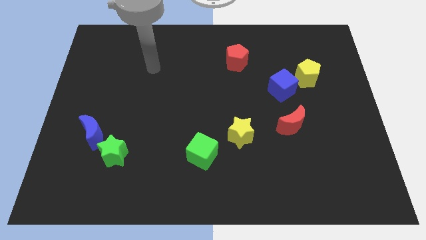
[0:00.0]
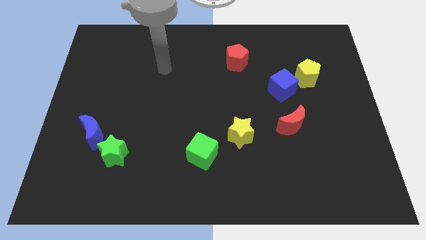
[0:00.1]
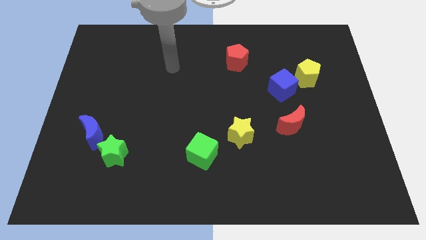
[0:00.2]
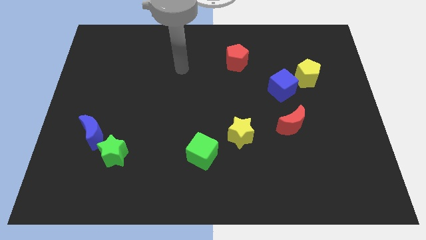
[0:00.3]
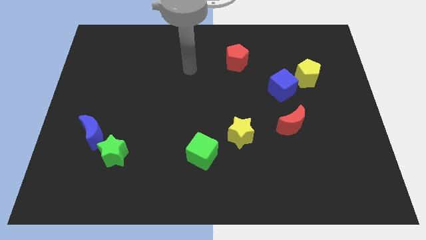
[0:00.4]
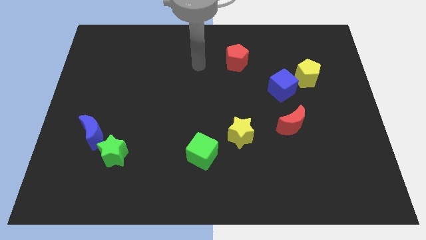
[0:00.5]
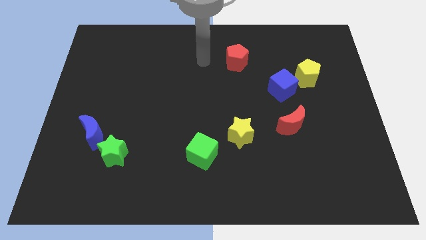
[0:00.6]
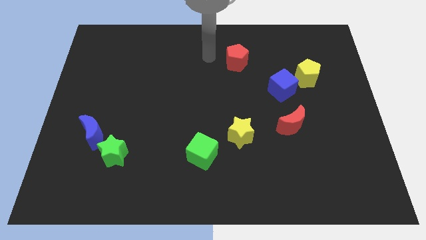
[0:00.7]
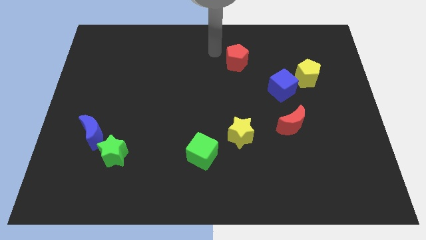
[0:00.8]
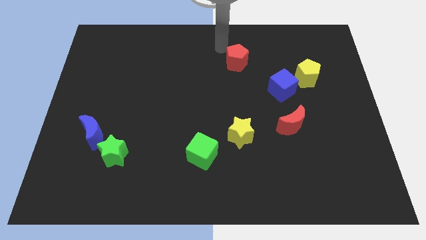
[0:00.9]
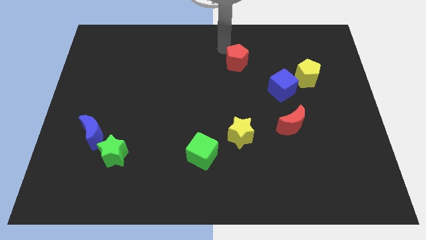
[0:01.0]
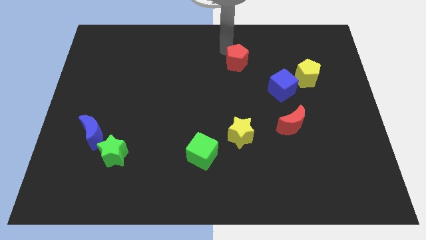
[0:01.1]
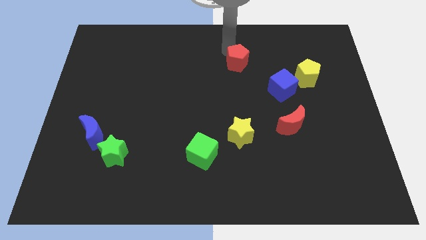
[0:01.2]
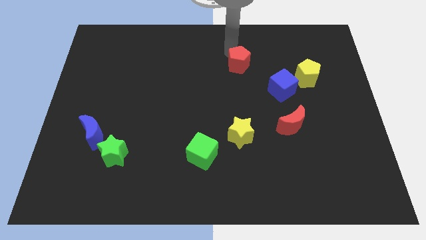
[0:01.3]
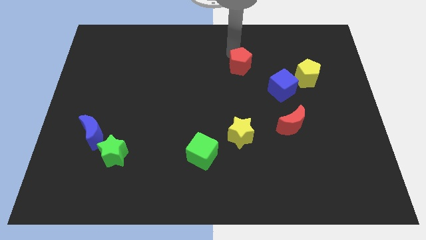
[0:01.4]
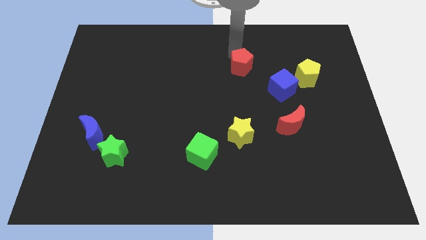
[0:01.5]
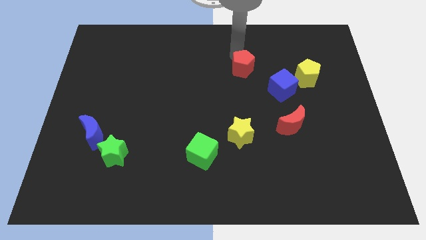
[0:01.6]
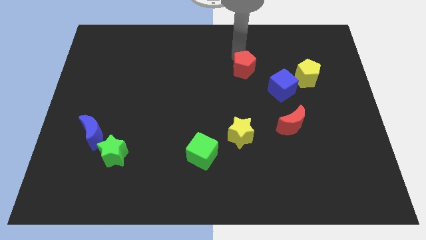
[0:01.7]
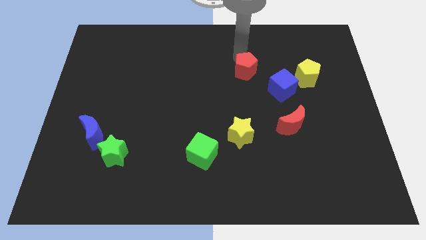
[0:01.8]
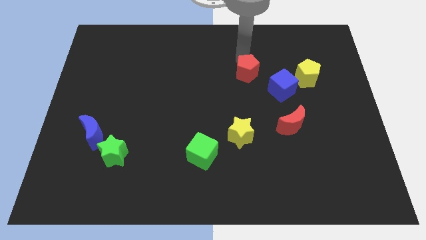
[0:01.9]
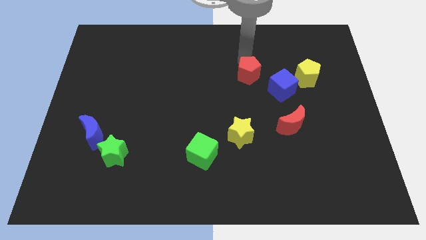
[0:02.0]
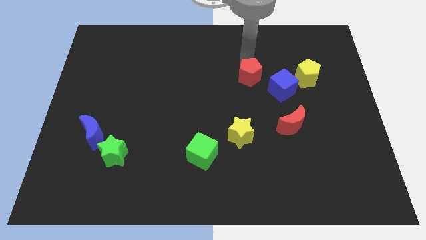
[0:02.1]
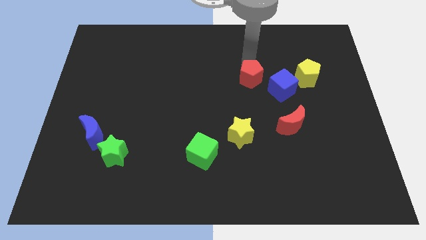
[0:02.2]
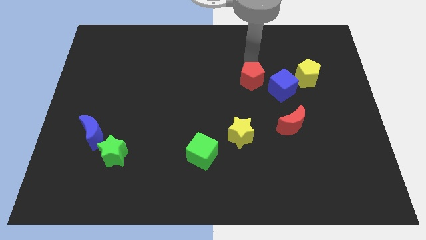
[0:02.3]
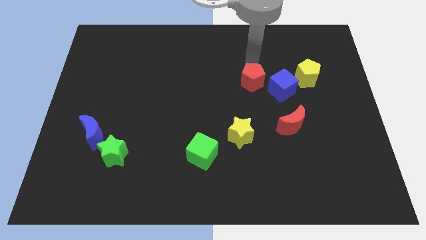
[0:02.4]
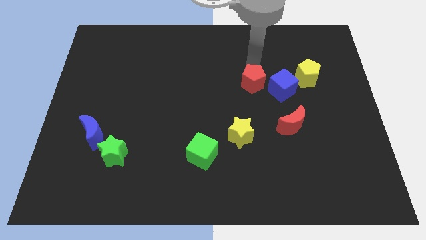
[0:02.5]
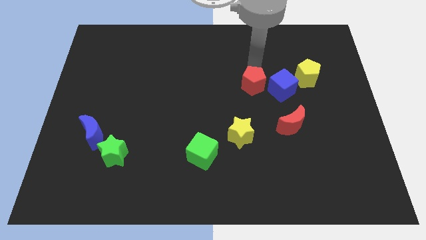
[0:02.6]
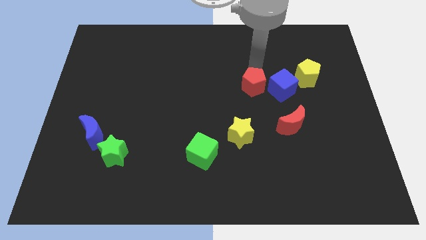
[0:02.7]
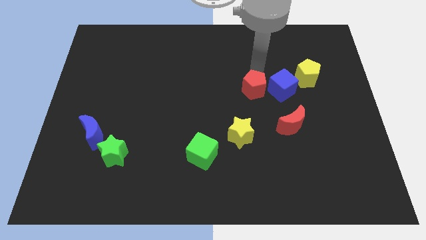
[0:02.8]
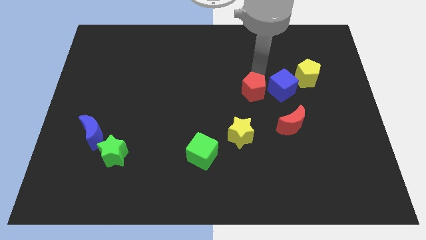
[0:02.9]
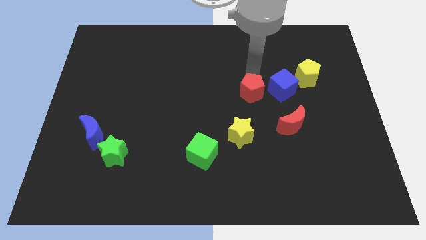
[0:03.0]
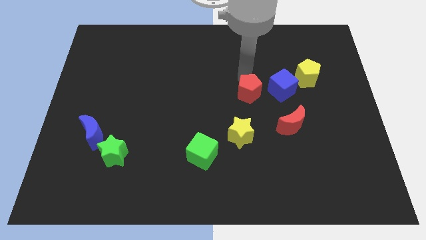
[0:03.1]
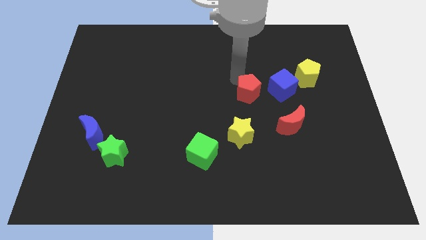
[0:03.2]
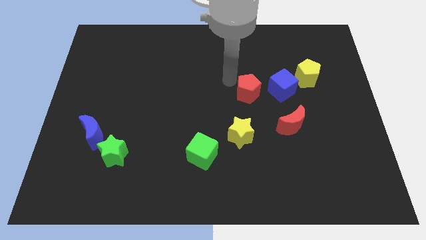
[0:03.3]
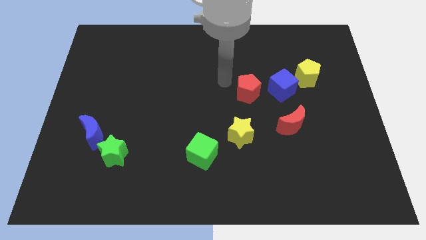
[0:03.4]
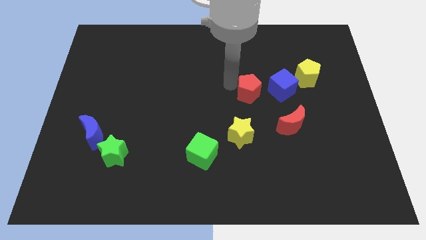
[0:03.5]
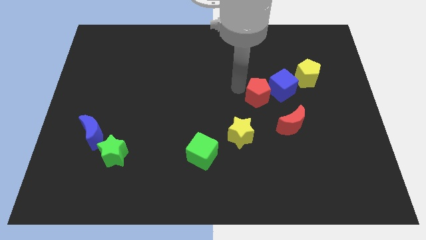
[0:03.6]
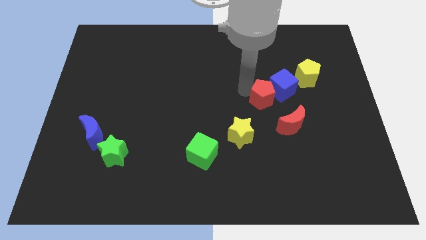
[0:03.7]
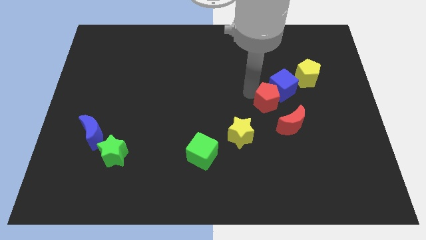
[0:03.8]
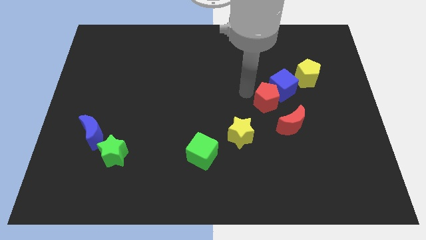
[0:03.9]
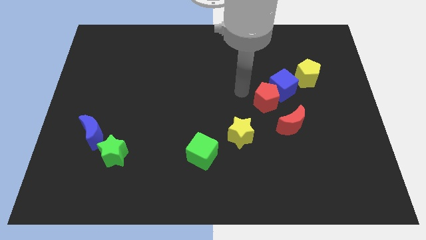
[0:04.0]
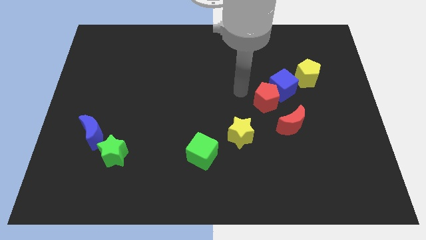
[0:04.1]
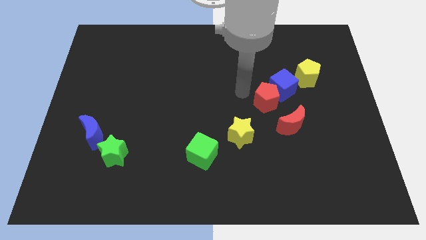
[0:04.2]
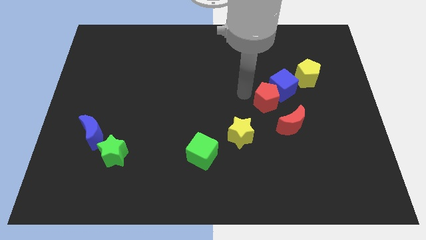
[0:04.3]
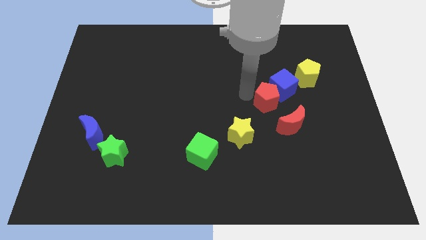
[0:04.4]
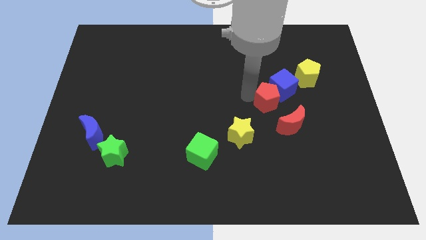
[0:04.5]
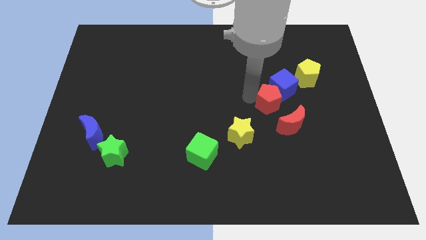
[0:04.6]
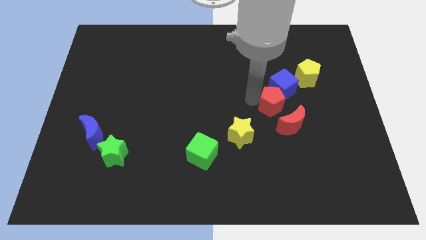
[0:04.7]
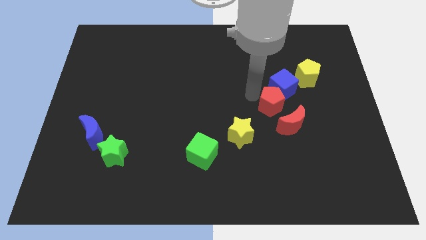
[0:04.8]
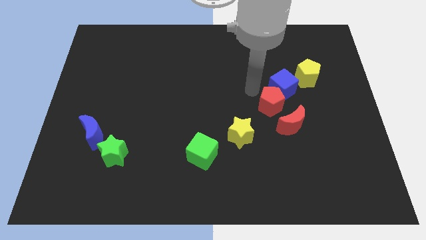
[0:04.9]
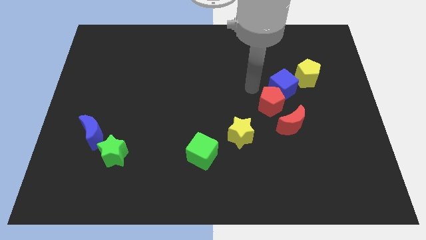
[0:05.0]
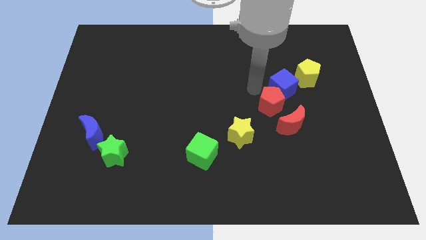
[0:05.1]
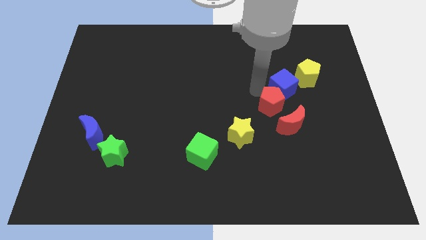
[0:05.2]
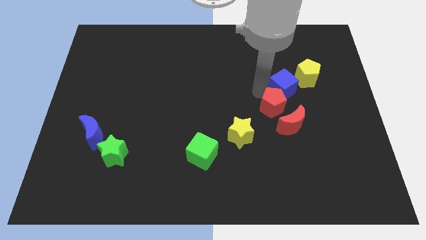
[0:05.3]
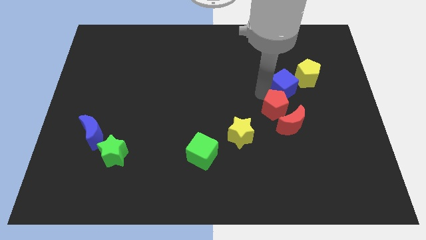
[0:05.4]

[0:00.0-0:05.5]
push the red pentagon to the red moon

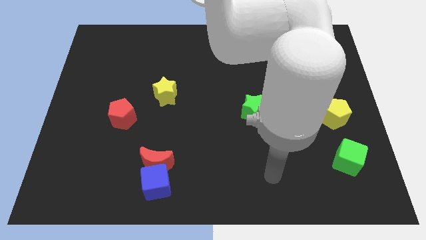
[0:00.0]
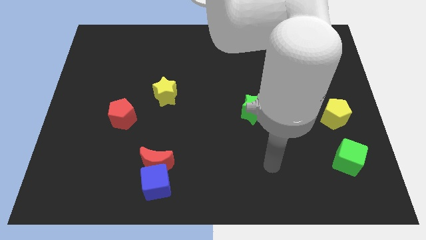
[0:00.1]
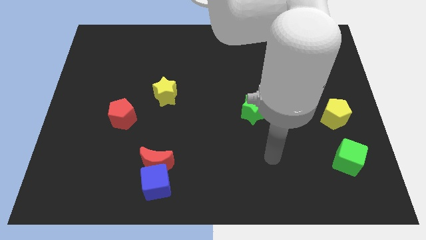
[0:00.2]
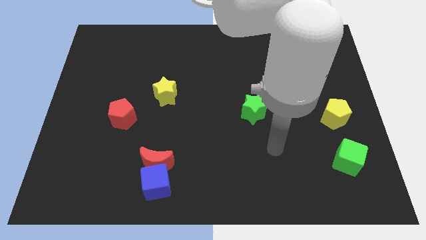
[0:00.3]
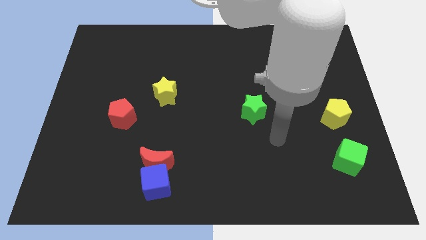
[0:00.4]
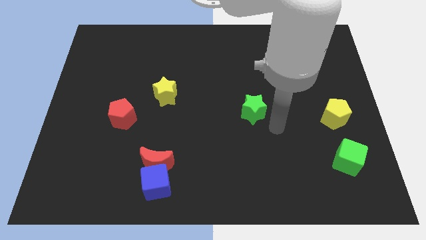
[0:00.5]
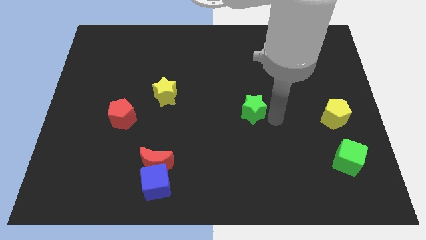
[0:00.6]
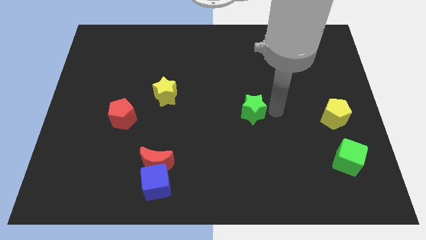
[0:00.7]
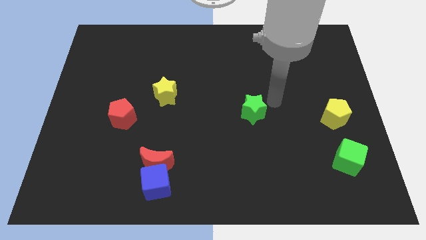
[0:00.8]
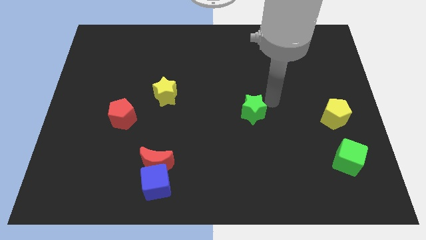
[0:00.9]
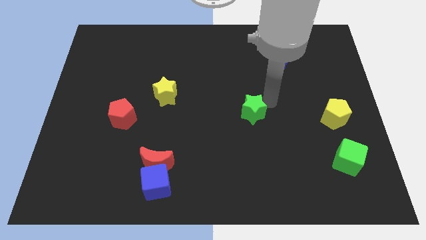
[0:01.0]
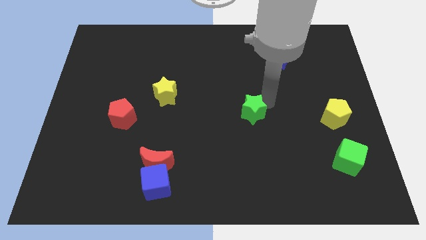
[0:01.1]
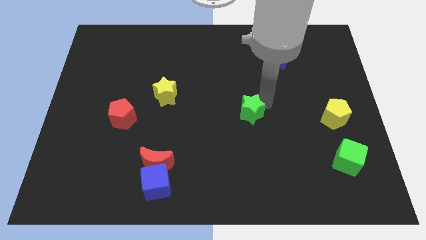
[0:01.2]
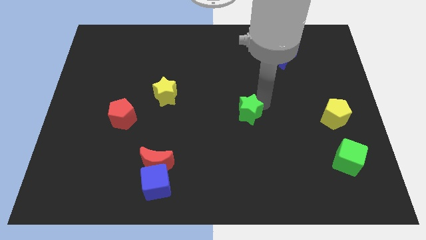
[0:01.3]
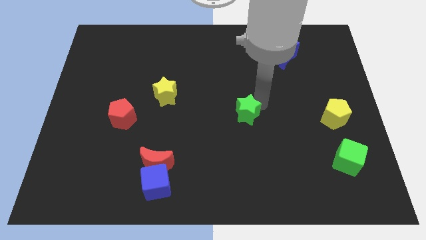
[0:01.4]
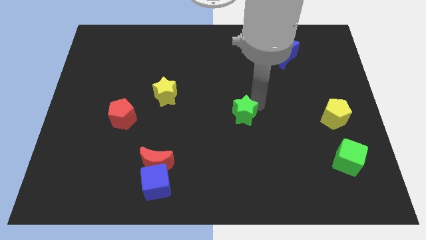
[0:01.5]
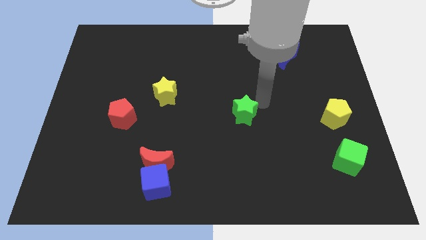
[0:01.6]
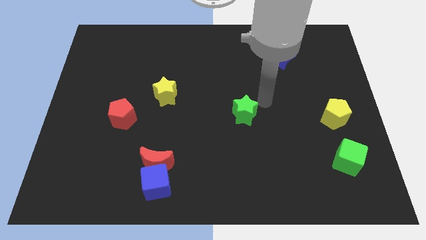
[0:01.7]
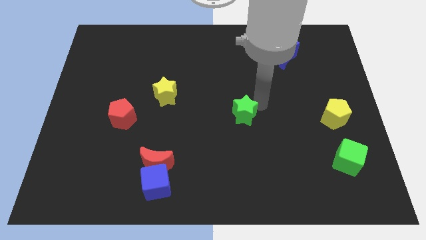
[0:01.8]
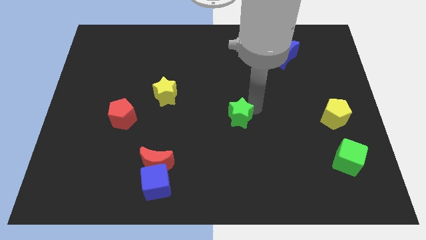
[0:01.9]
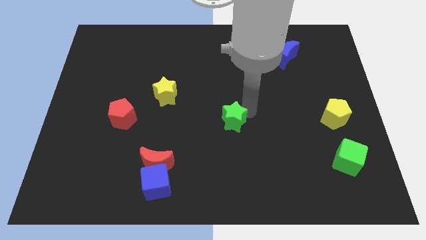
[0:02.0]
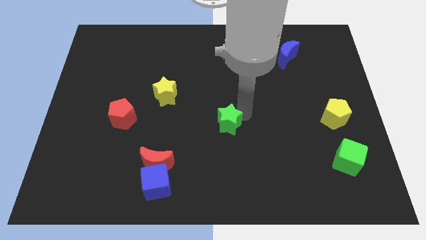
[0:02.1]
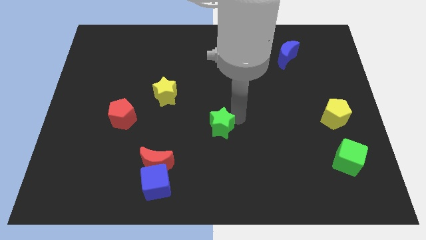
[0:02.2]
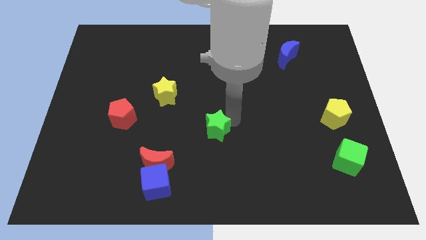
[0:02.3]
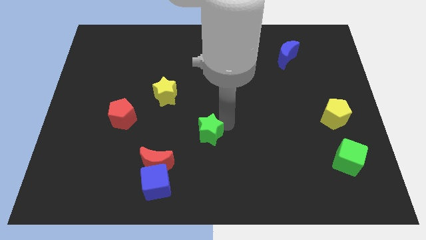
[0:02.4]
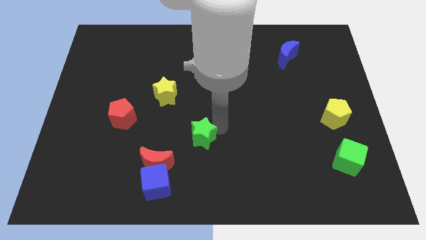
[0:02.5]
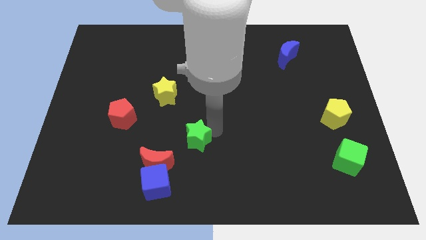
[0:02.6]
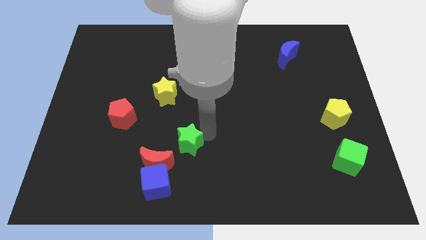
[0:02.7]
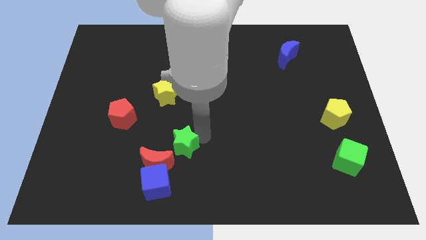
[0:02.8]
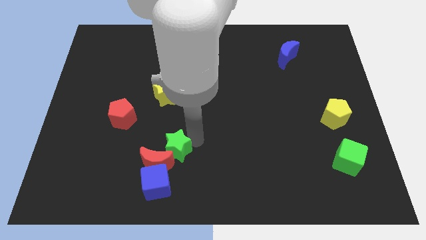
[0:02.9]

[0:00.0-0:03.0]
push the green star close to the red moon
